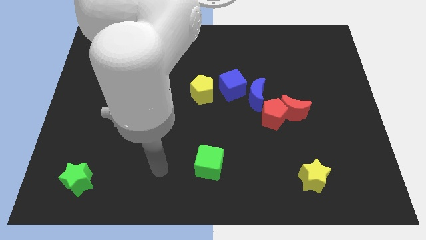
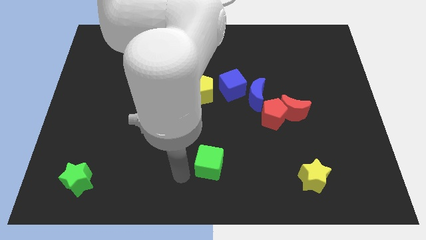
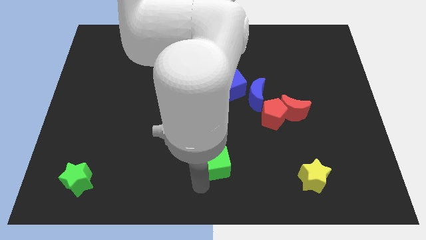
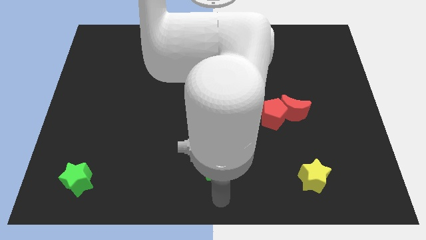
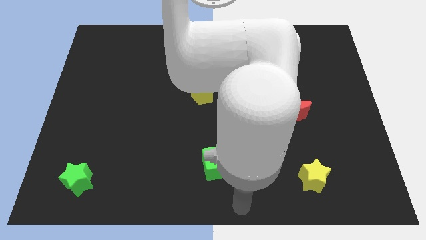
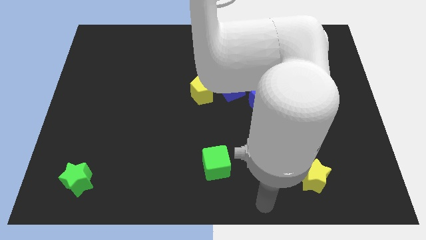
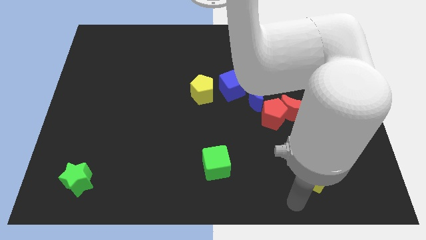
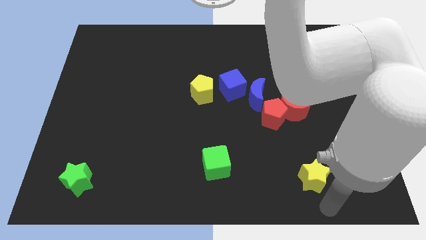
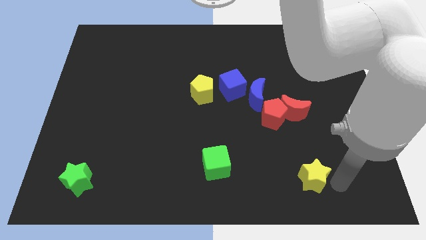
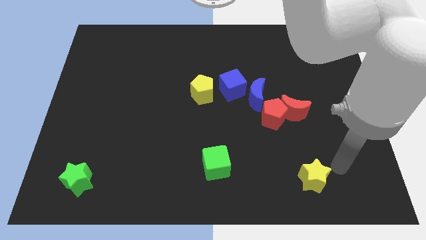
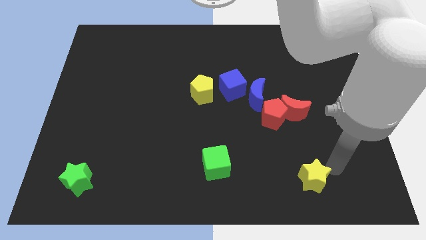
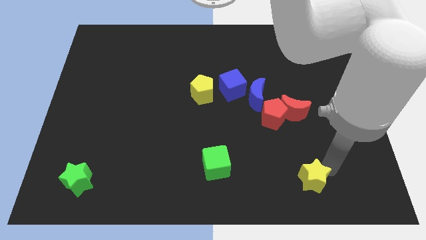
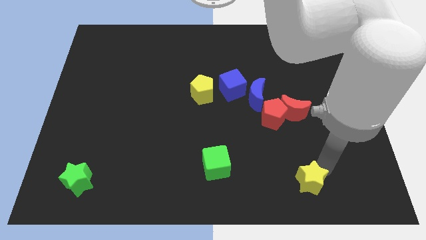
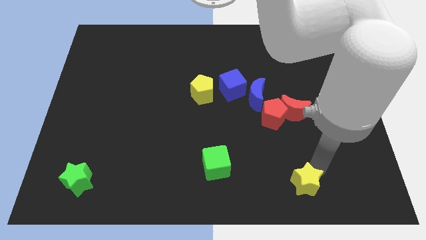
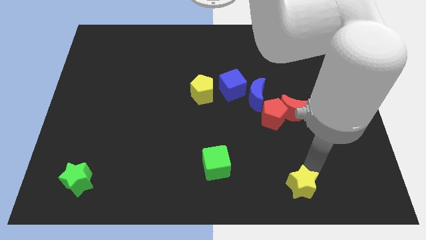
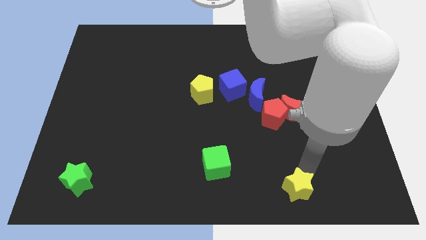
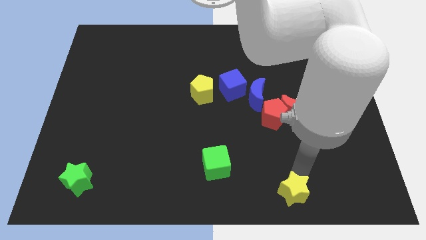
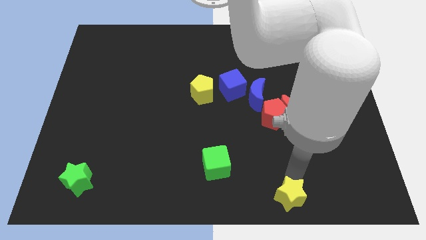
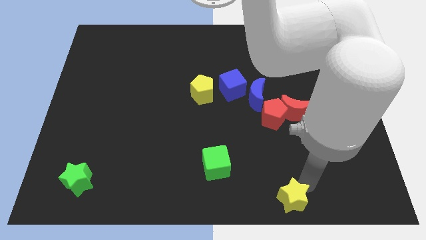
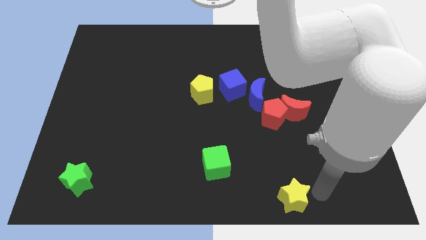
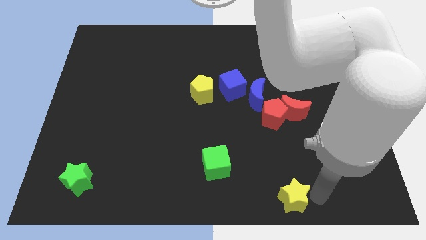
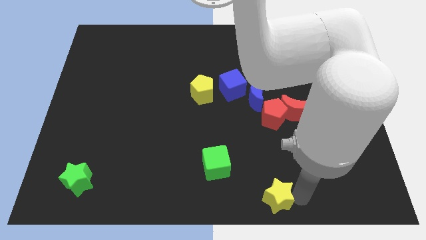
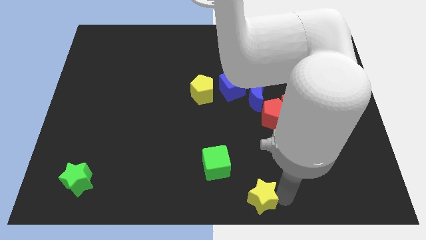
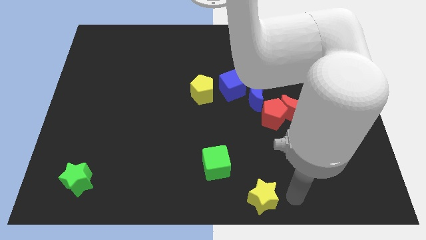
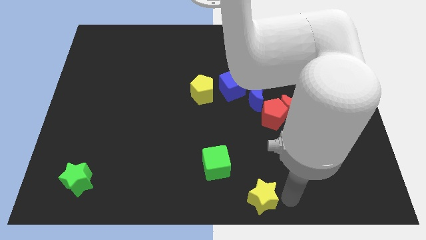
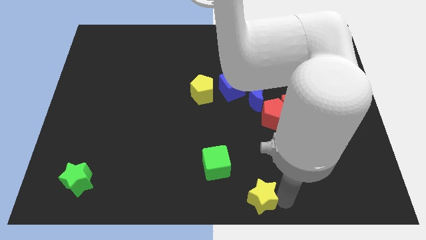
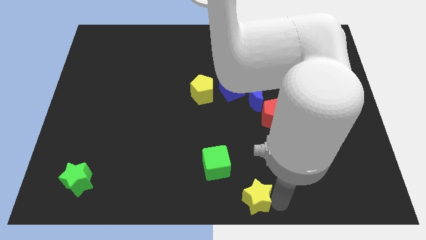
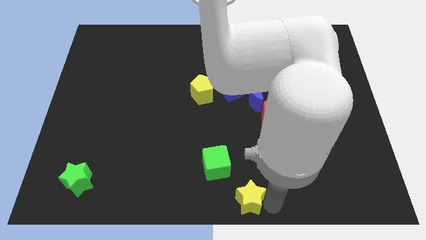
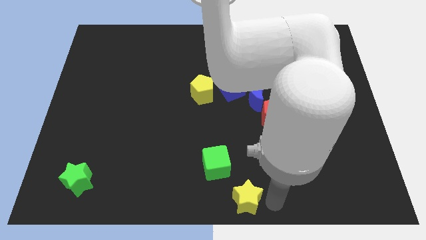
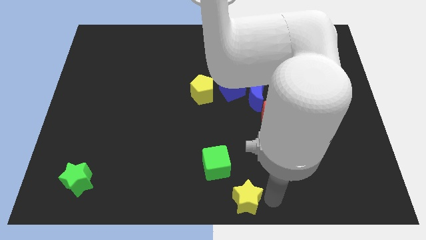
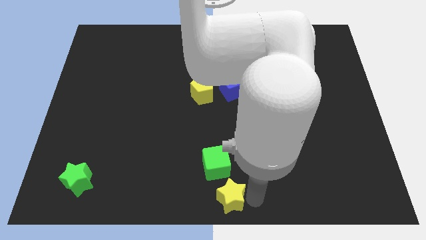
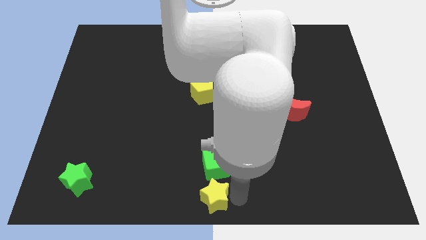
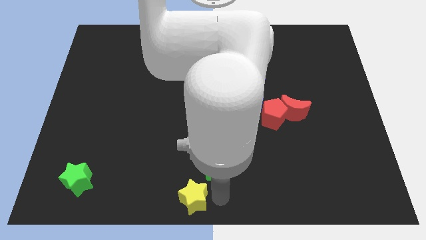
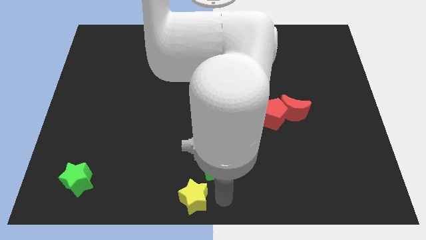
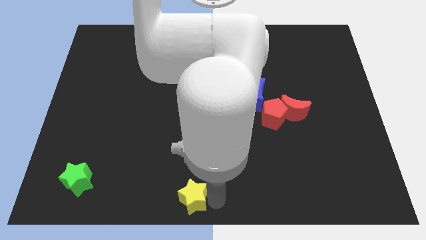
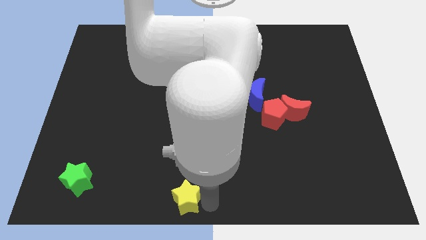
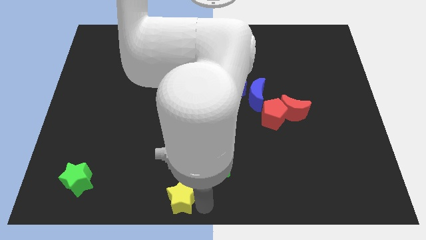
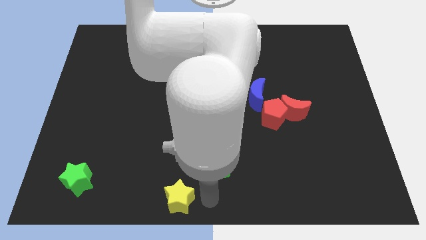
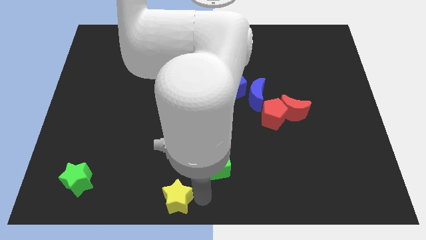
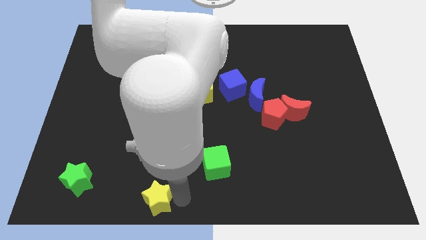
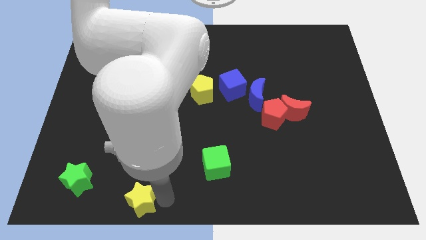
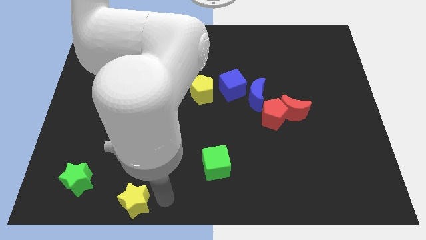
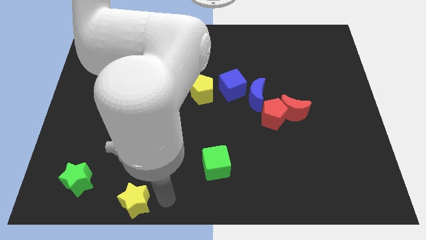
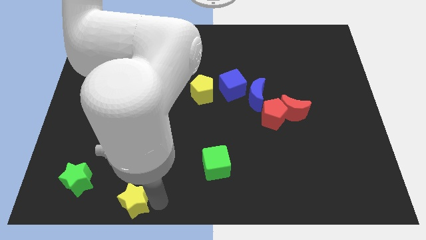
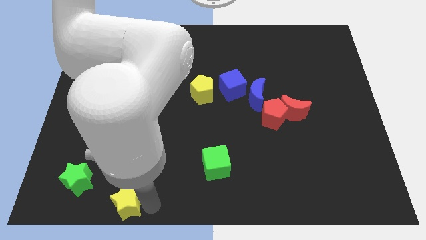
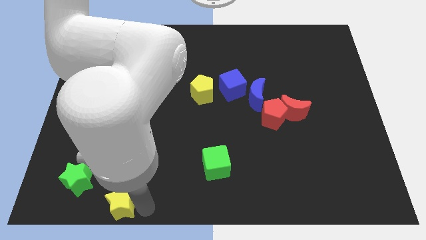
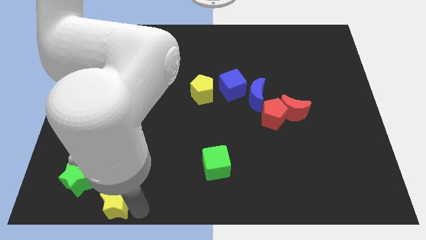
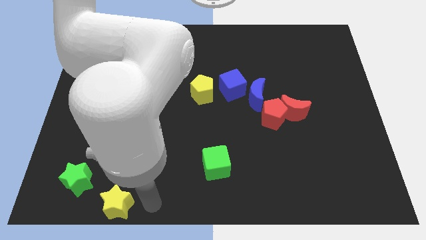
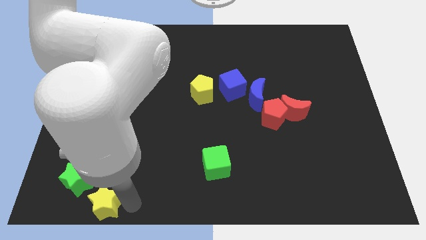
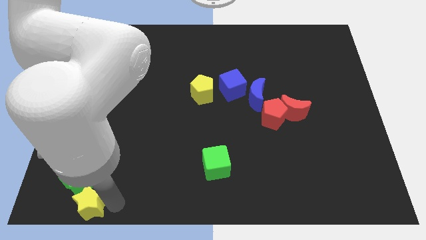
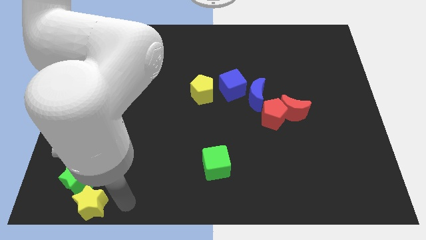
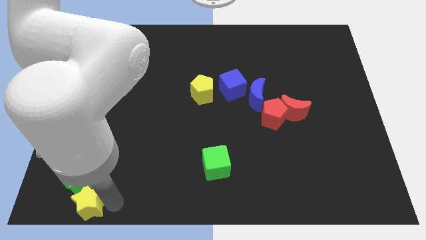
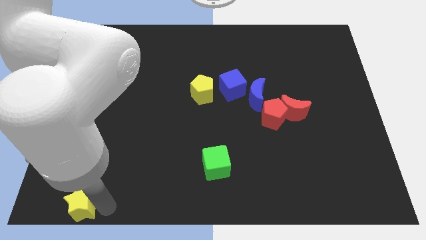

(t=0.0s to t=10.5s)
put the yellow star to the bottom left
